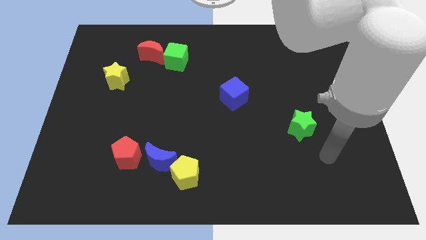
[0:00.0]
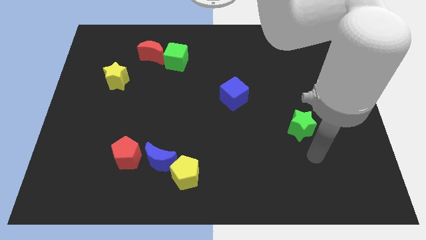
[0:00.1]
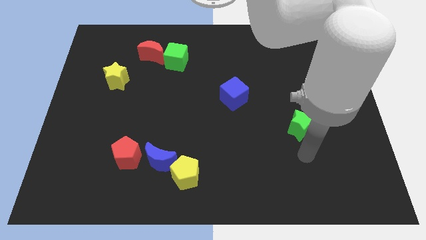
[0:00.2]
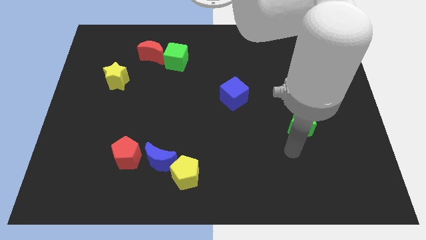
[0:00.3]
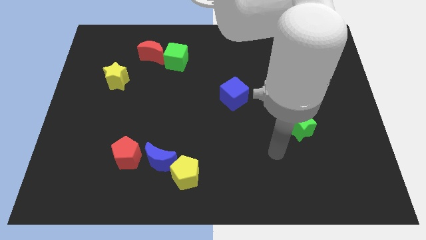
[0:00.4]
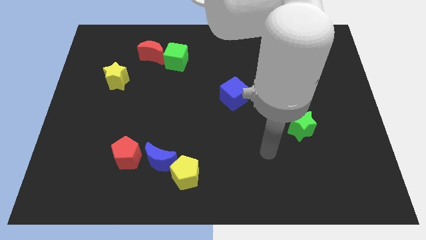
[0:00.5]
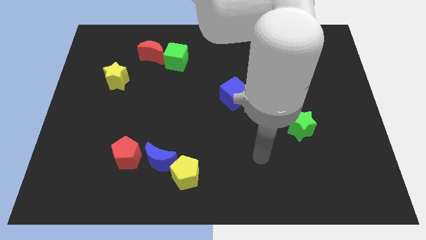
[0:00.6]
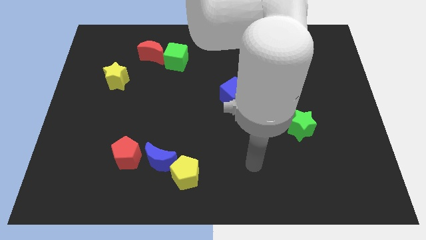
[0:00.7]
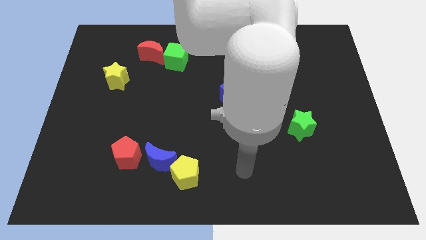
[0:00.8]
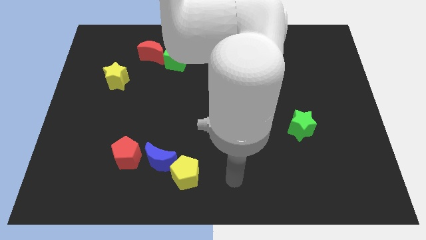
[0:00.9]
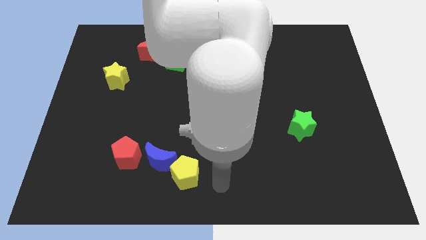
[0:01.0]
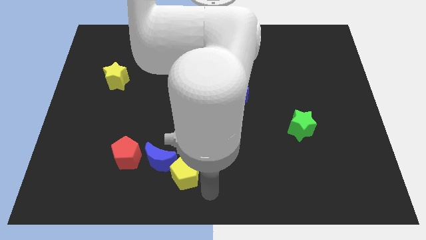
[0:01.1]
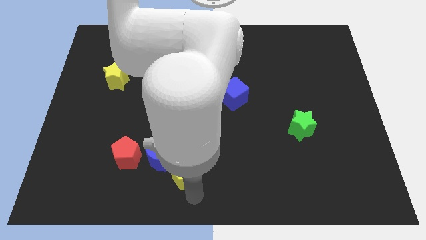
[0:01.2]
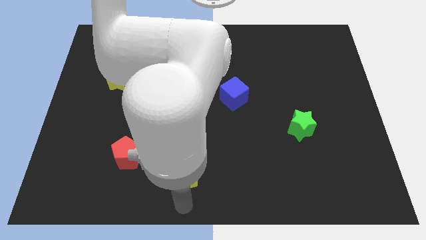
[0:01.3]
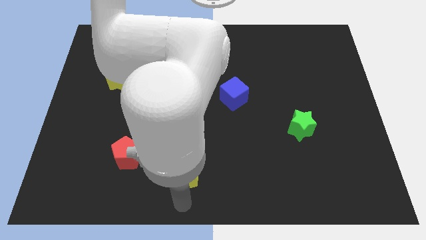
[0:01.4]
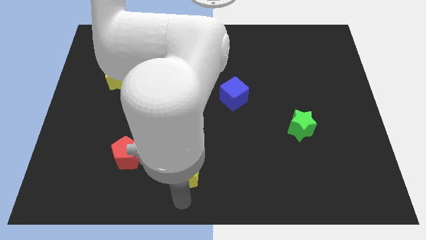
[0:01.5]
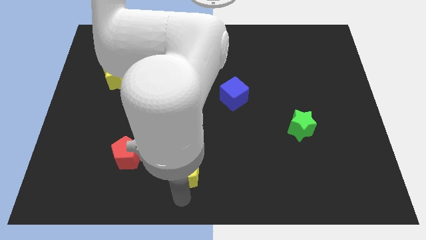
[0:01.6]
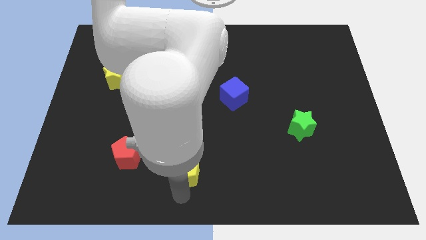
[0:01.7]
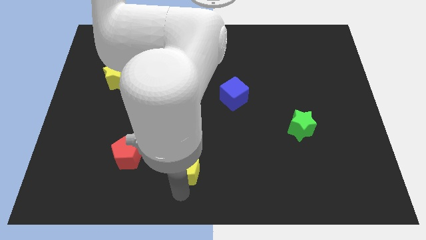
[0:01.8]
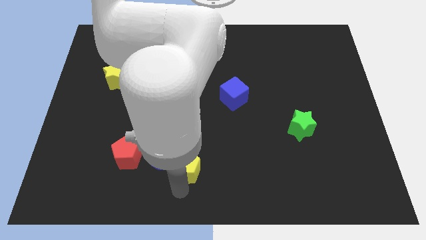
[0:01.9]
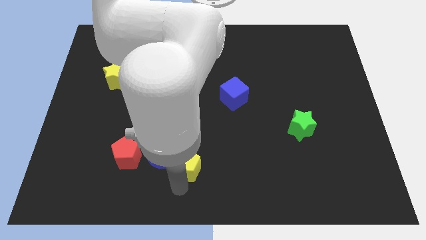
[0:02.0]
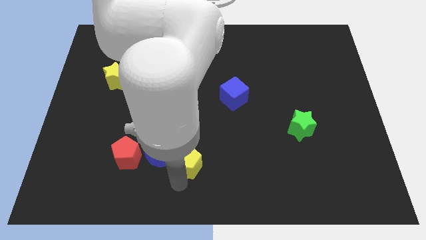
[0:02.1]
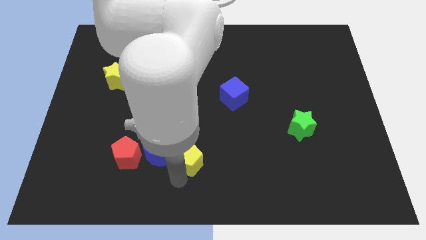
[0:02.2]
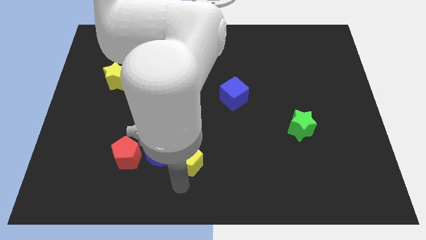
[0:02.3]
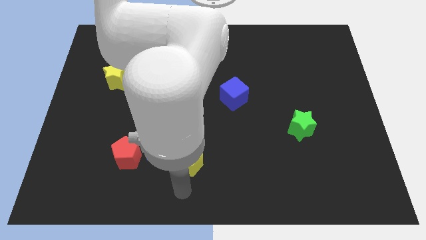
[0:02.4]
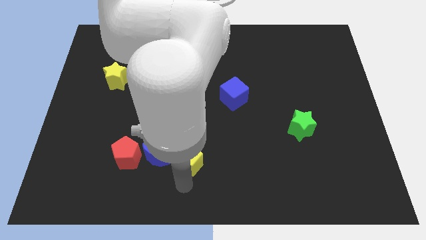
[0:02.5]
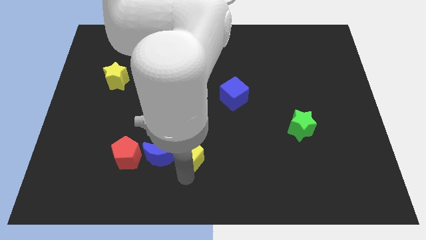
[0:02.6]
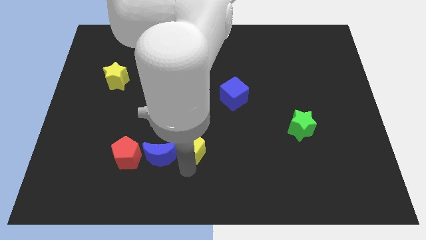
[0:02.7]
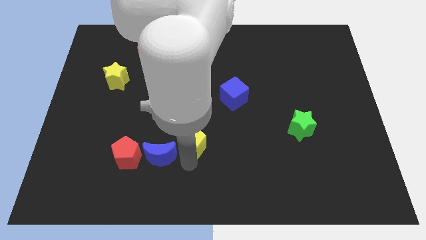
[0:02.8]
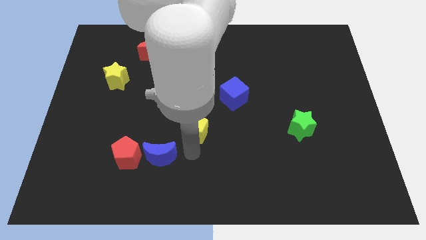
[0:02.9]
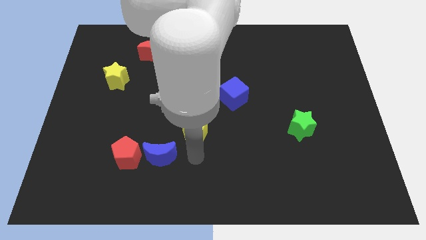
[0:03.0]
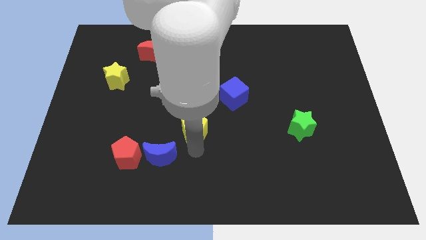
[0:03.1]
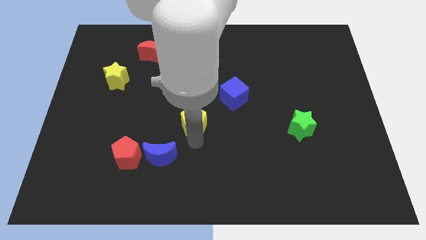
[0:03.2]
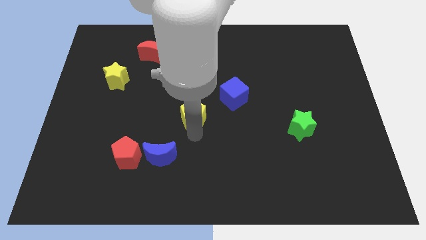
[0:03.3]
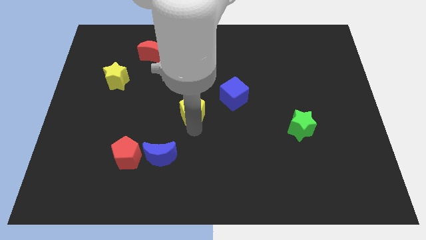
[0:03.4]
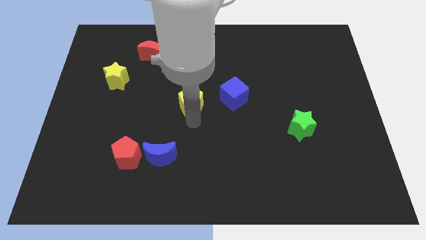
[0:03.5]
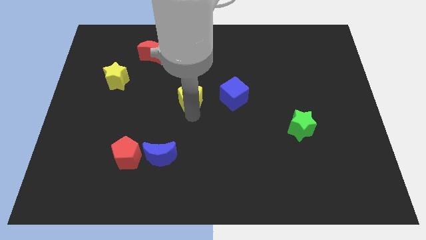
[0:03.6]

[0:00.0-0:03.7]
move the yellow pentagon up

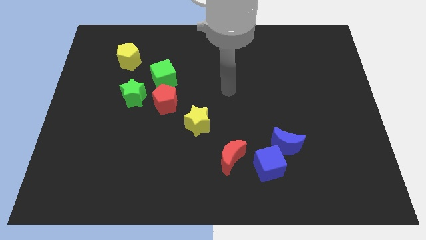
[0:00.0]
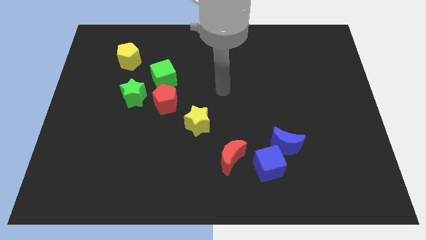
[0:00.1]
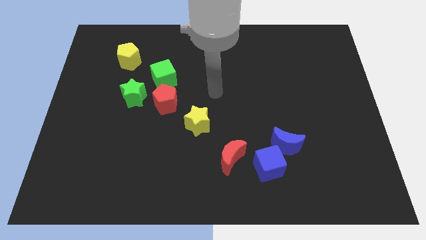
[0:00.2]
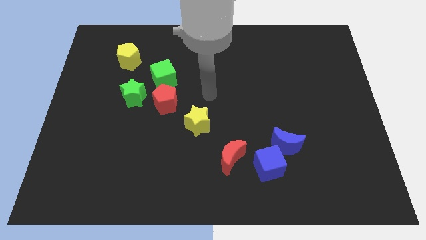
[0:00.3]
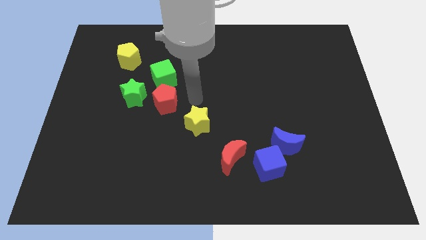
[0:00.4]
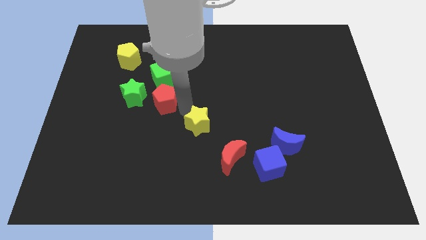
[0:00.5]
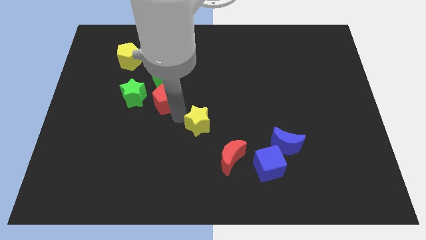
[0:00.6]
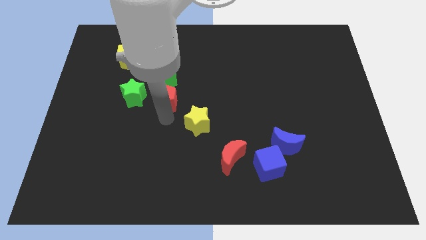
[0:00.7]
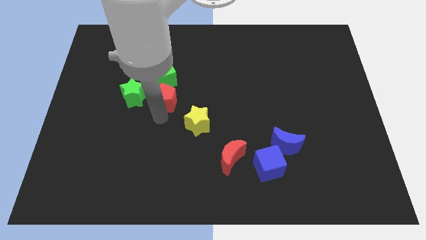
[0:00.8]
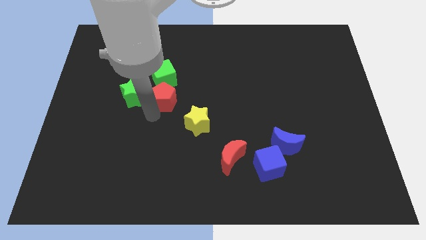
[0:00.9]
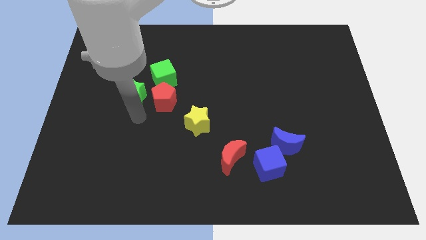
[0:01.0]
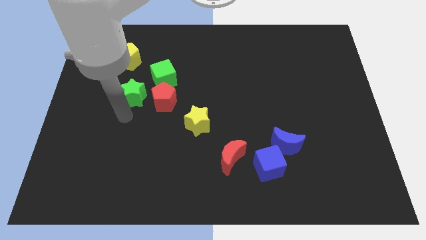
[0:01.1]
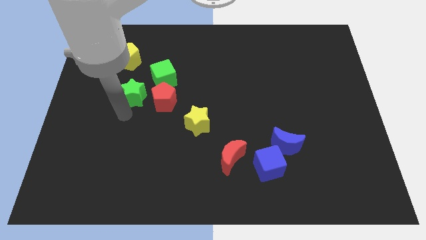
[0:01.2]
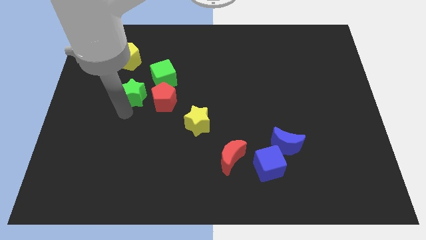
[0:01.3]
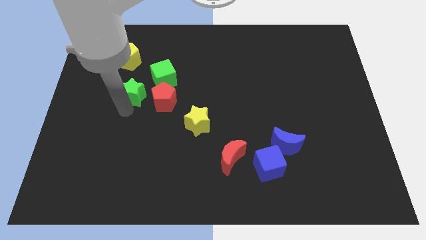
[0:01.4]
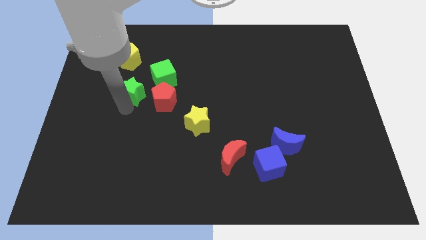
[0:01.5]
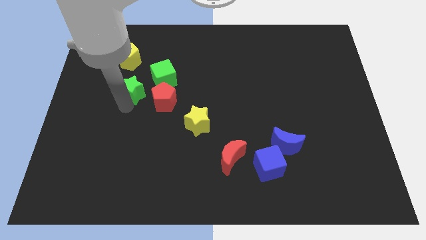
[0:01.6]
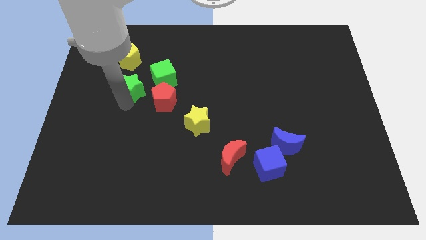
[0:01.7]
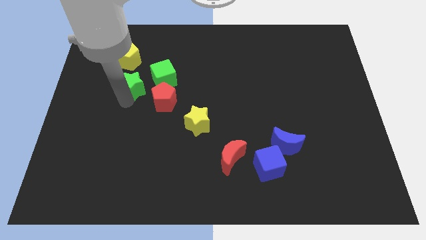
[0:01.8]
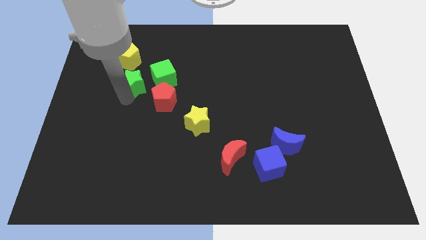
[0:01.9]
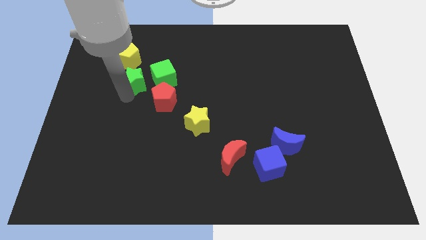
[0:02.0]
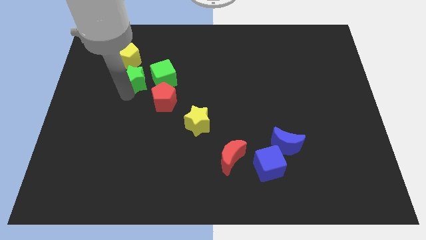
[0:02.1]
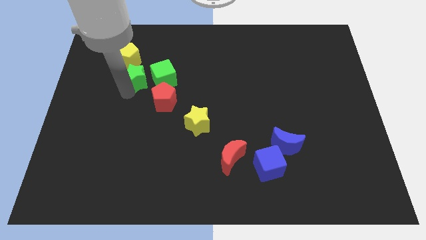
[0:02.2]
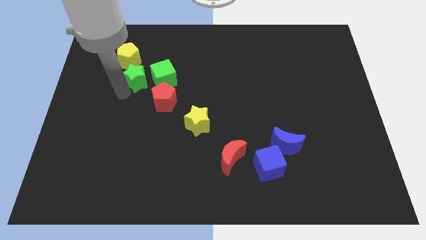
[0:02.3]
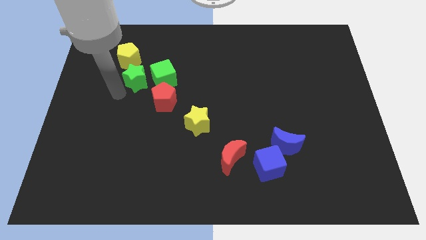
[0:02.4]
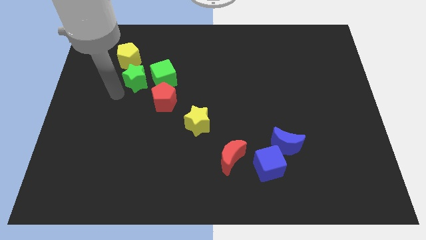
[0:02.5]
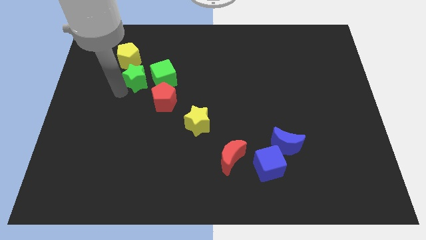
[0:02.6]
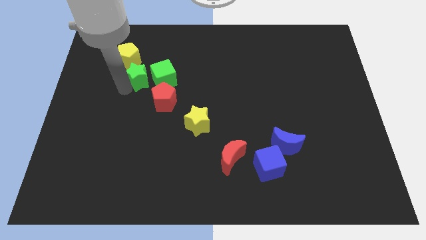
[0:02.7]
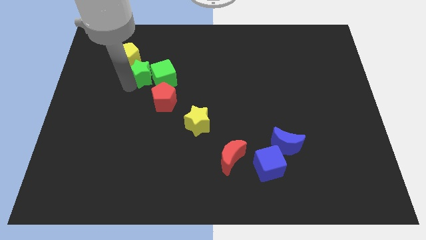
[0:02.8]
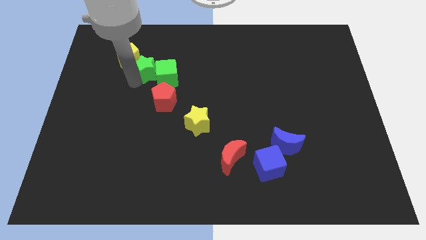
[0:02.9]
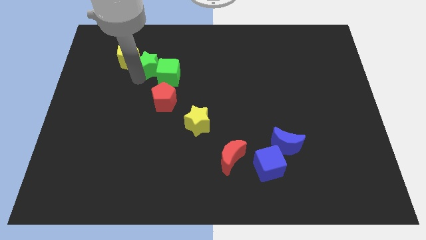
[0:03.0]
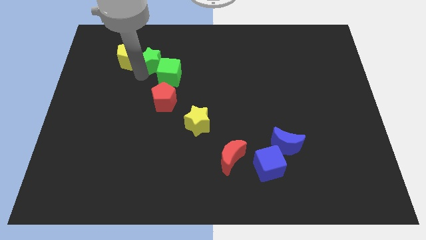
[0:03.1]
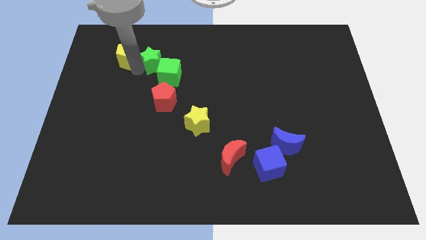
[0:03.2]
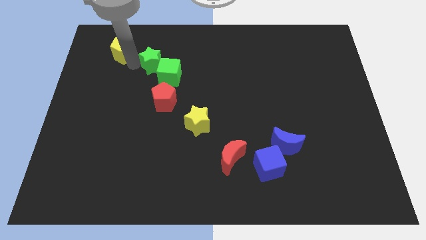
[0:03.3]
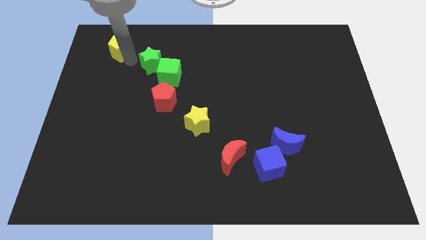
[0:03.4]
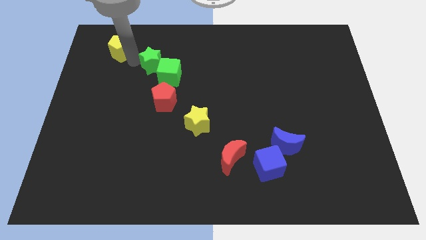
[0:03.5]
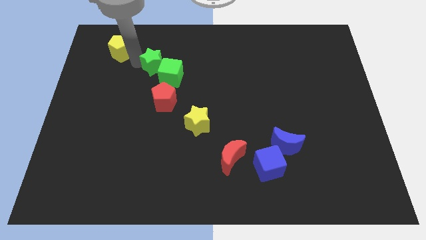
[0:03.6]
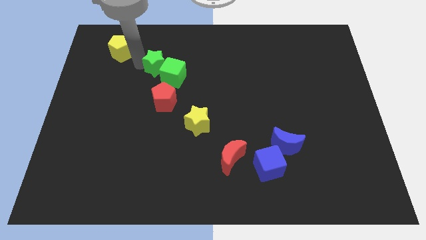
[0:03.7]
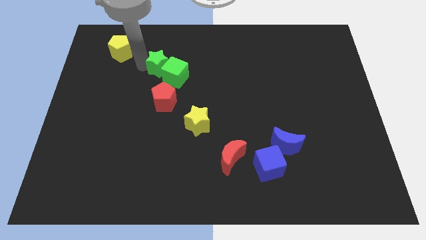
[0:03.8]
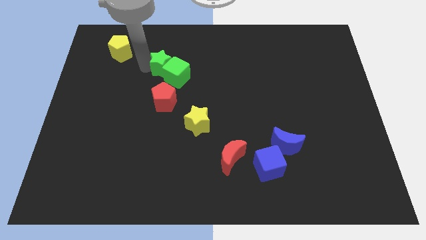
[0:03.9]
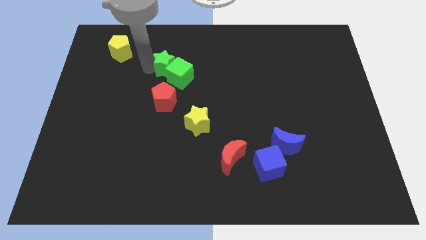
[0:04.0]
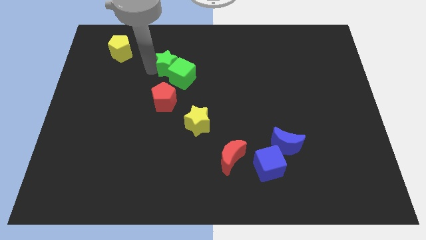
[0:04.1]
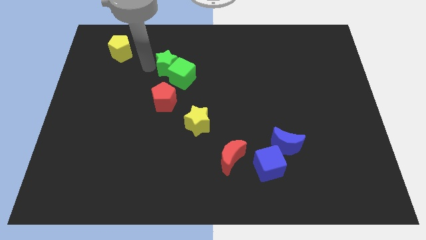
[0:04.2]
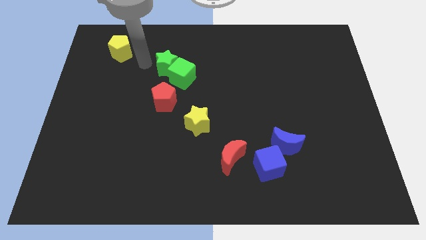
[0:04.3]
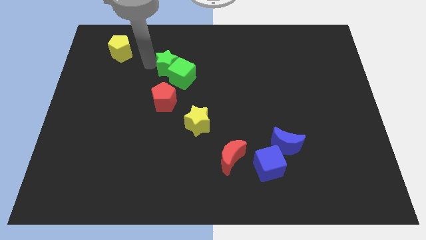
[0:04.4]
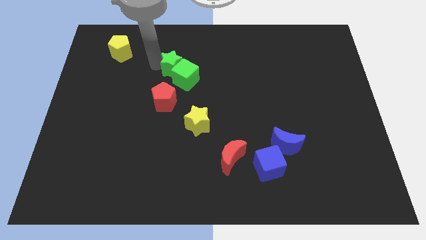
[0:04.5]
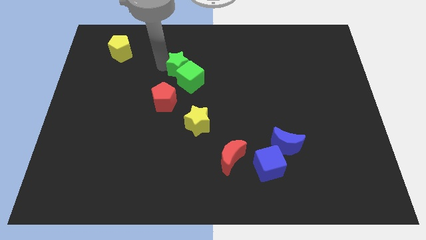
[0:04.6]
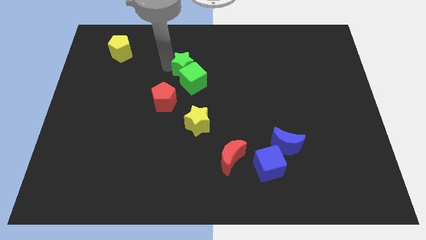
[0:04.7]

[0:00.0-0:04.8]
move the green star a little bit to the right
